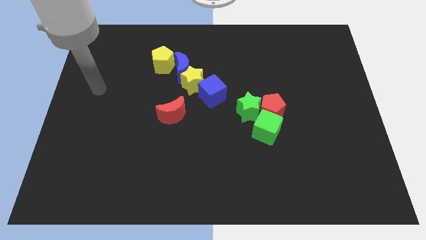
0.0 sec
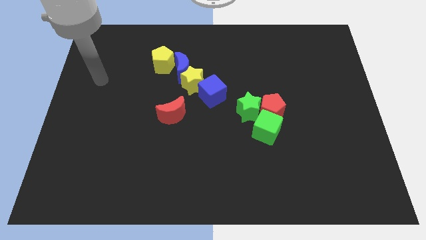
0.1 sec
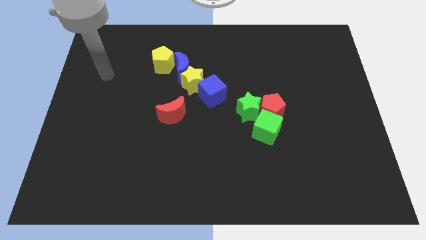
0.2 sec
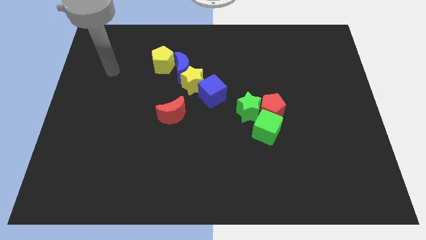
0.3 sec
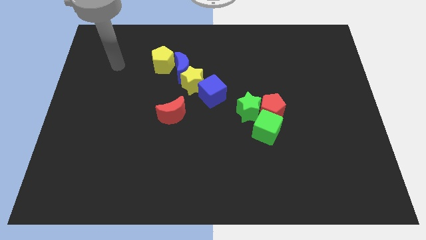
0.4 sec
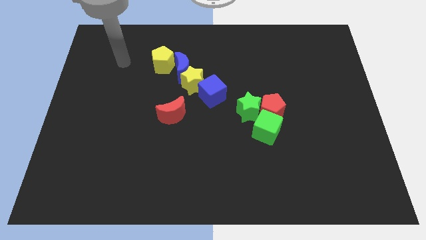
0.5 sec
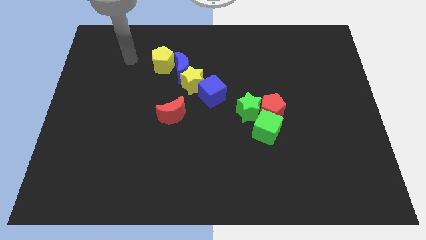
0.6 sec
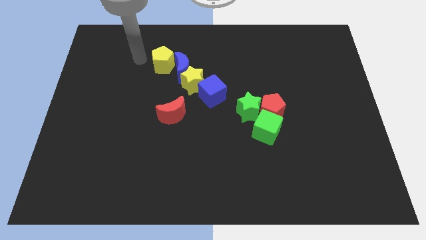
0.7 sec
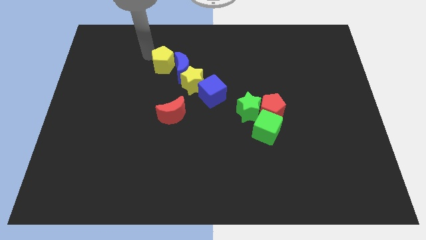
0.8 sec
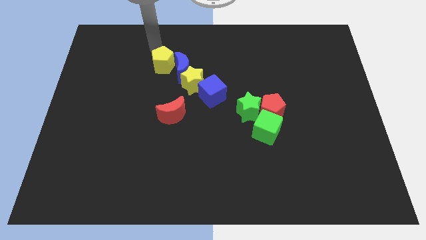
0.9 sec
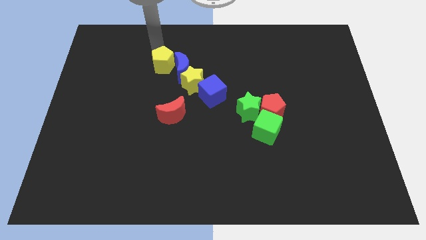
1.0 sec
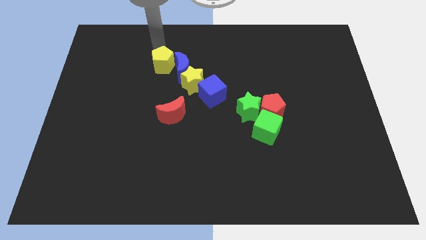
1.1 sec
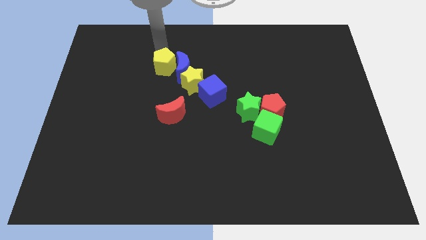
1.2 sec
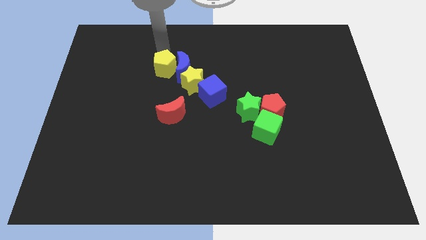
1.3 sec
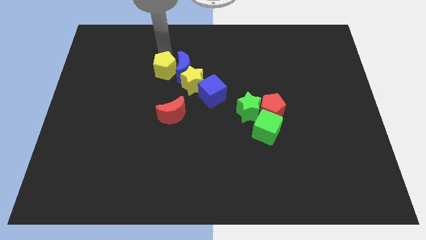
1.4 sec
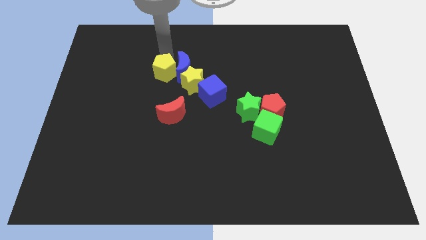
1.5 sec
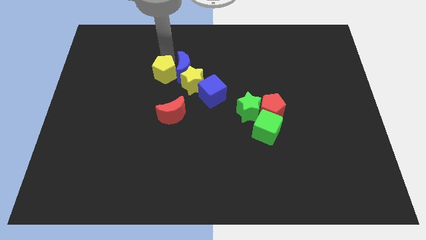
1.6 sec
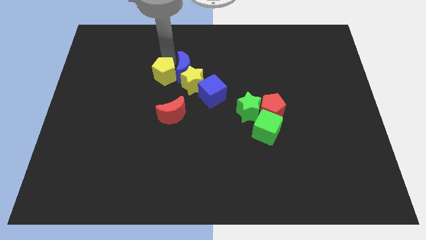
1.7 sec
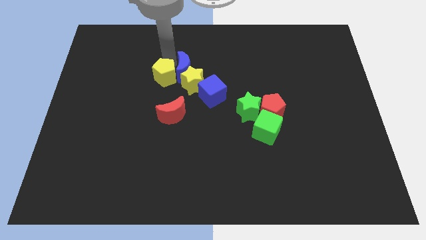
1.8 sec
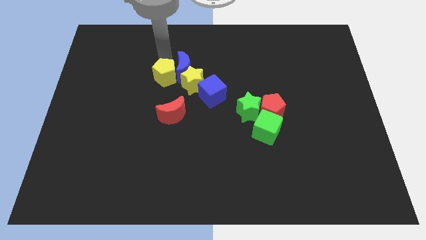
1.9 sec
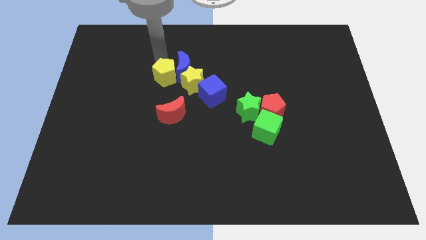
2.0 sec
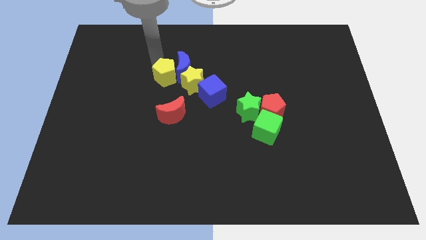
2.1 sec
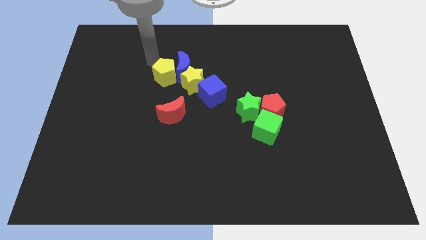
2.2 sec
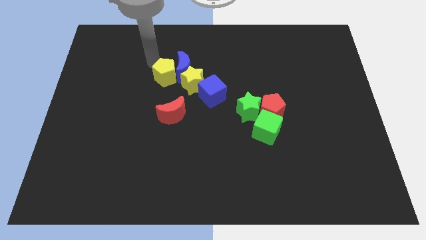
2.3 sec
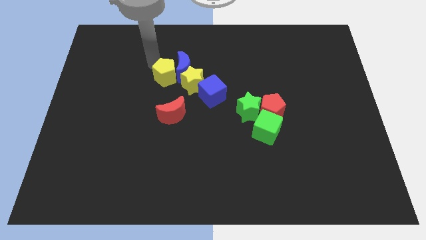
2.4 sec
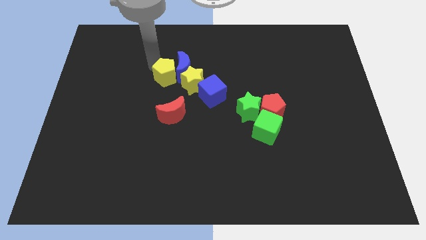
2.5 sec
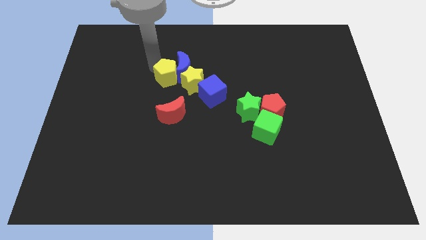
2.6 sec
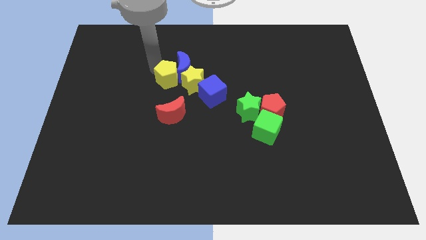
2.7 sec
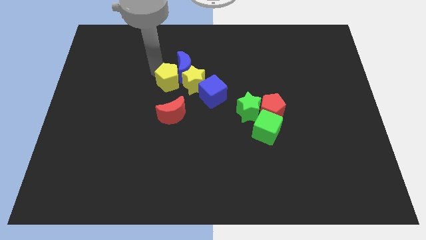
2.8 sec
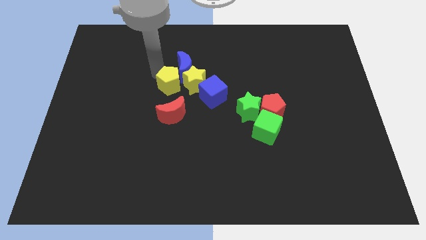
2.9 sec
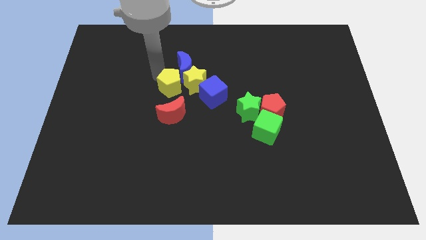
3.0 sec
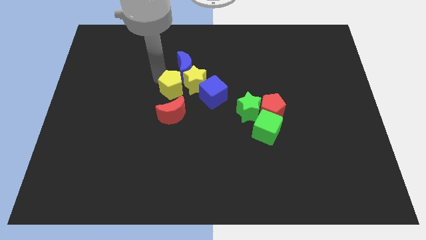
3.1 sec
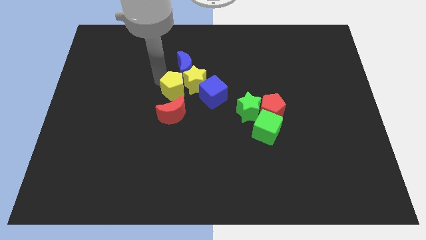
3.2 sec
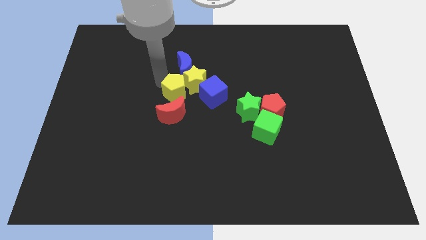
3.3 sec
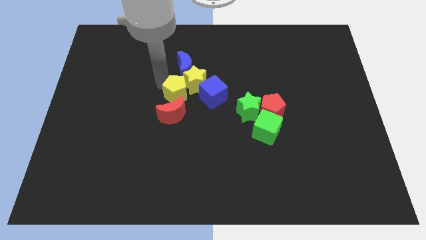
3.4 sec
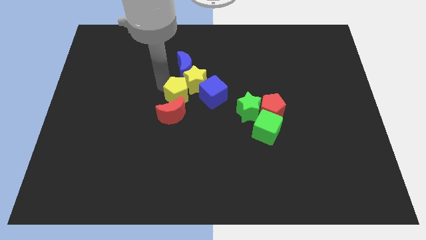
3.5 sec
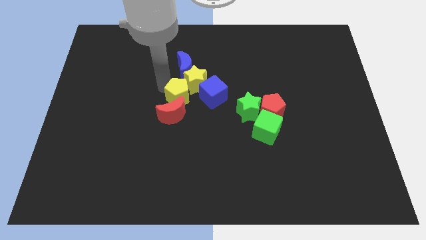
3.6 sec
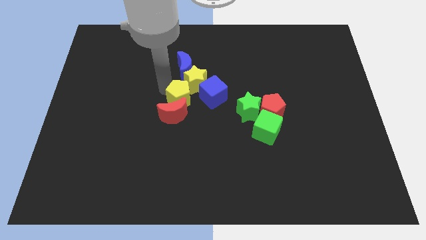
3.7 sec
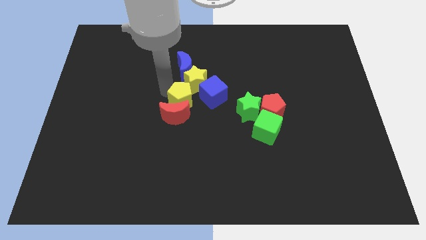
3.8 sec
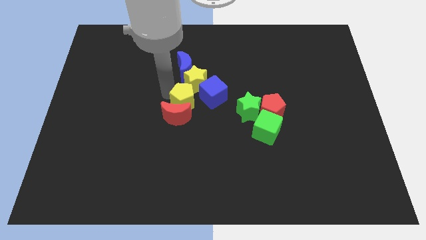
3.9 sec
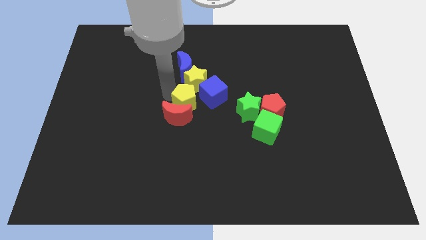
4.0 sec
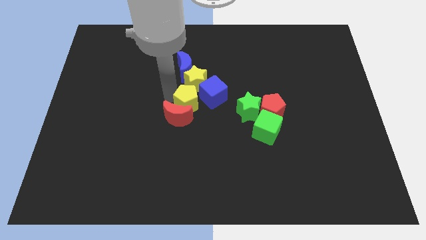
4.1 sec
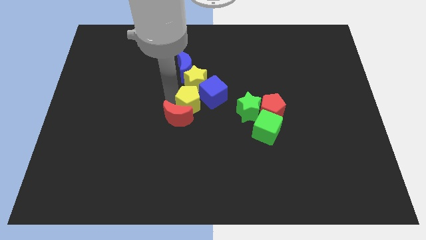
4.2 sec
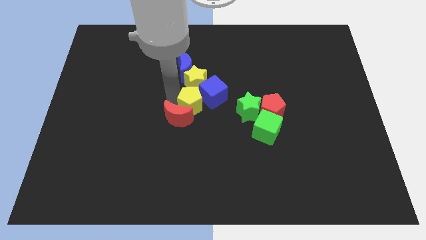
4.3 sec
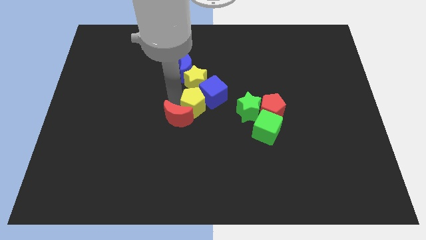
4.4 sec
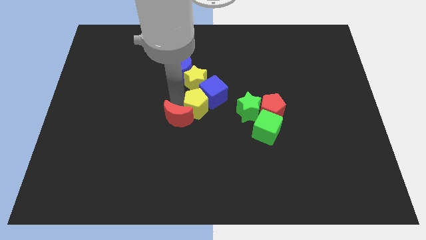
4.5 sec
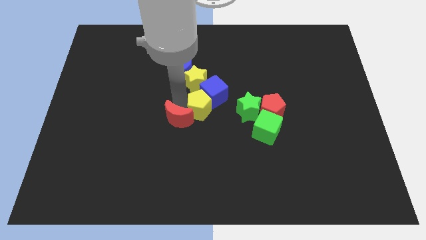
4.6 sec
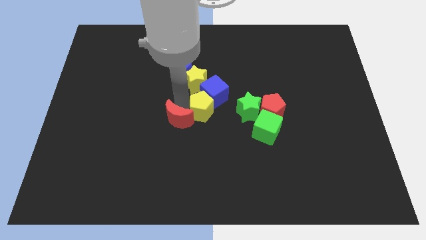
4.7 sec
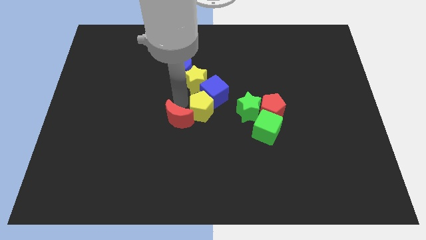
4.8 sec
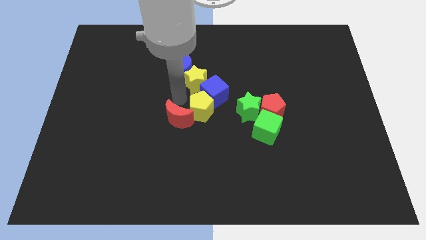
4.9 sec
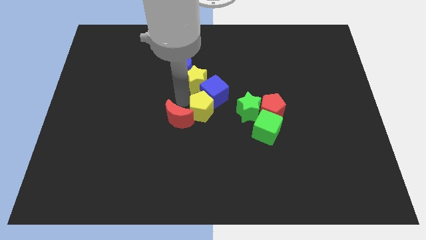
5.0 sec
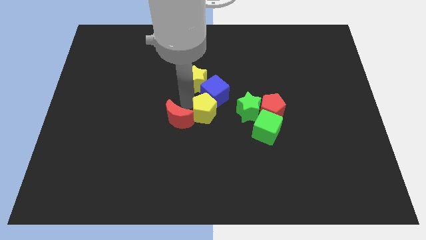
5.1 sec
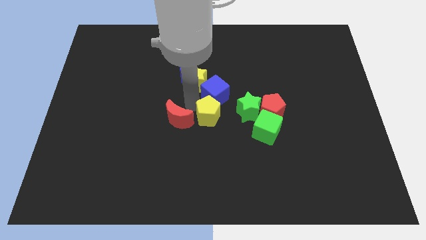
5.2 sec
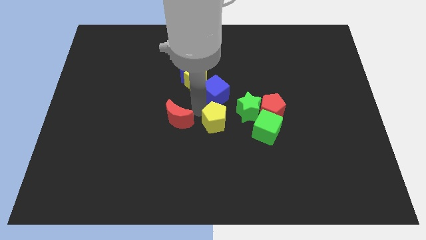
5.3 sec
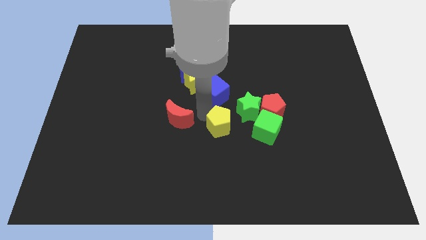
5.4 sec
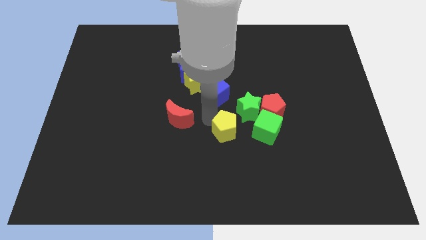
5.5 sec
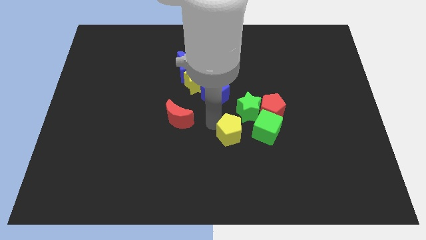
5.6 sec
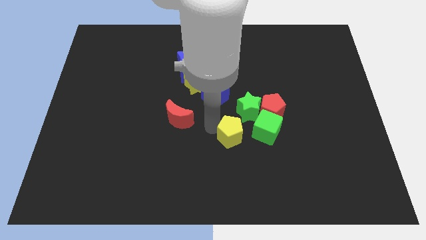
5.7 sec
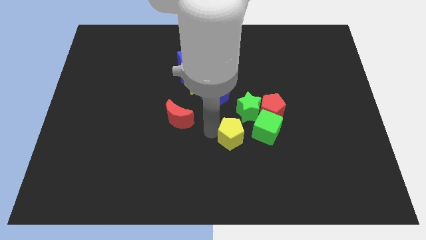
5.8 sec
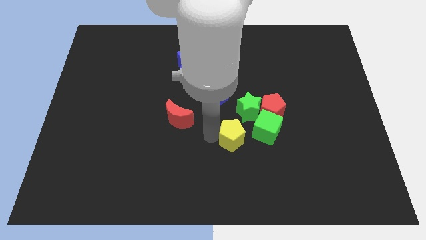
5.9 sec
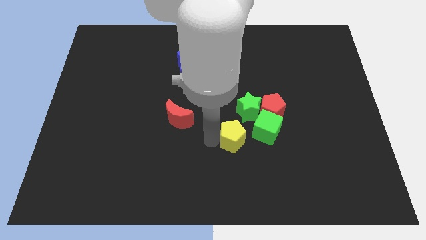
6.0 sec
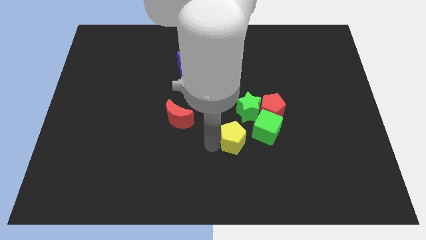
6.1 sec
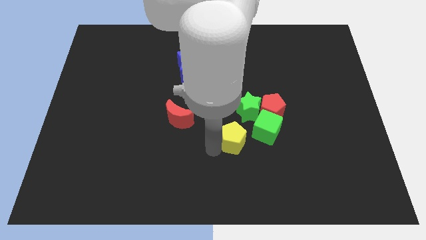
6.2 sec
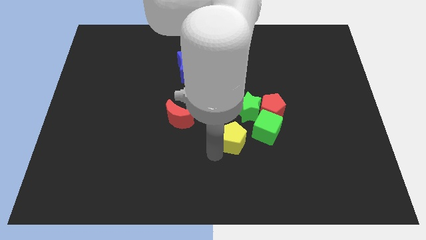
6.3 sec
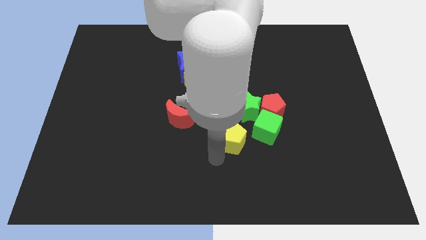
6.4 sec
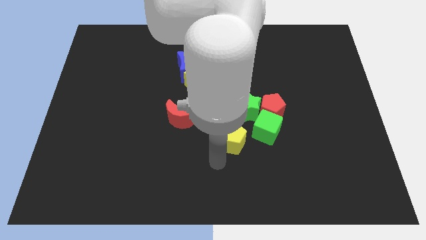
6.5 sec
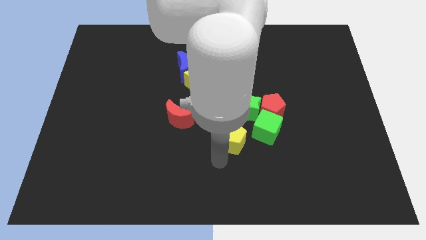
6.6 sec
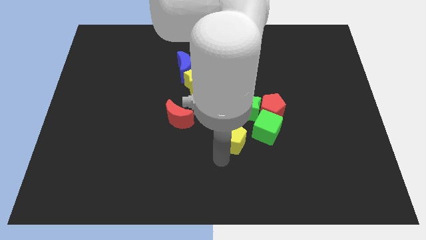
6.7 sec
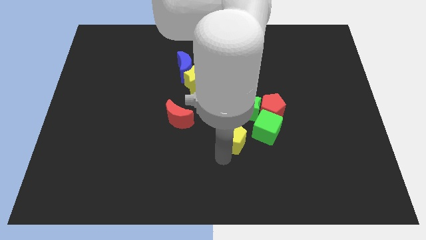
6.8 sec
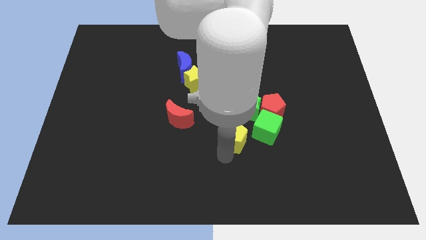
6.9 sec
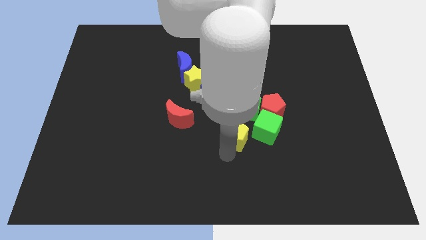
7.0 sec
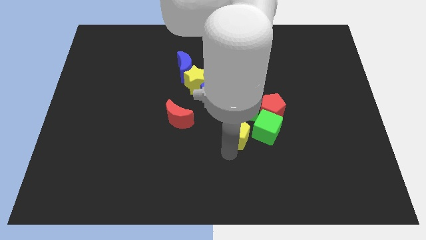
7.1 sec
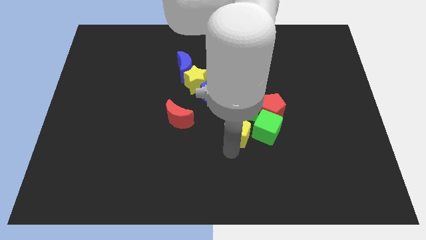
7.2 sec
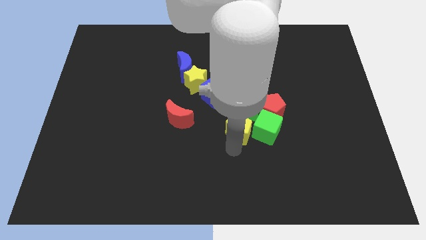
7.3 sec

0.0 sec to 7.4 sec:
move the yellow pentagon close to the green cube

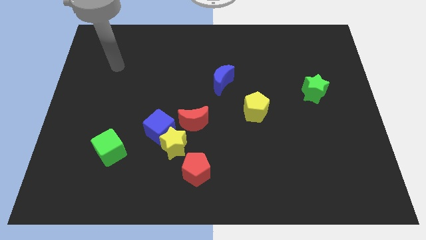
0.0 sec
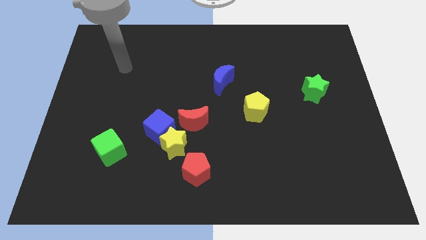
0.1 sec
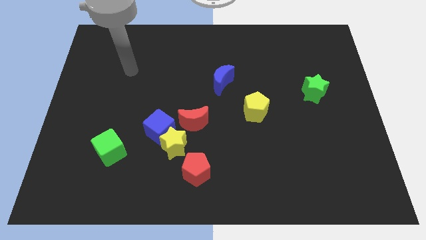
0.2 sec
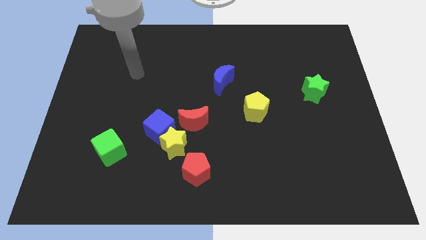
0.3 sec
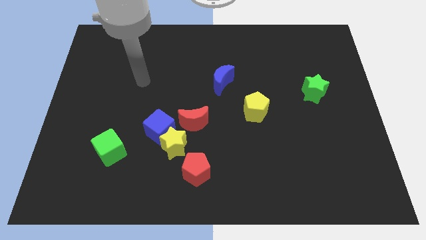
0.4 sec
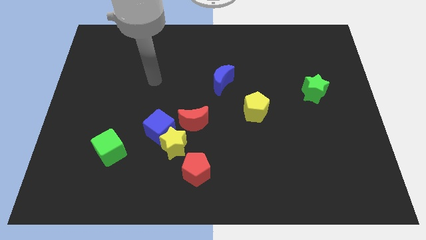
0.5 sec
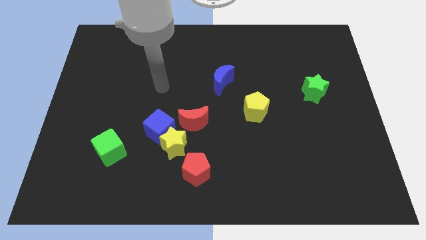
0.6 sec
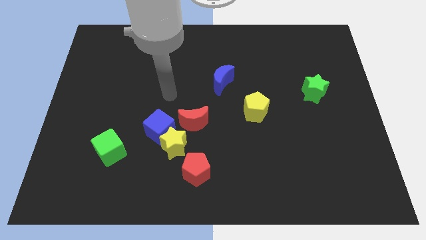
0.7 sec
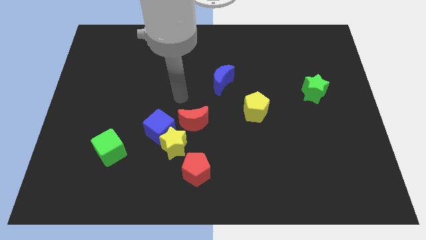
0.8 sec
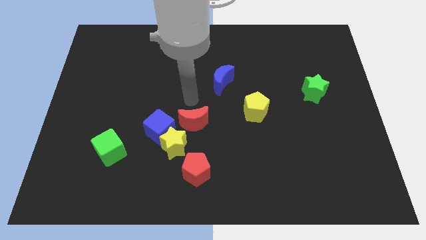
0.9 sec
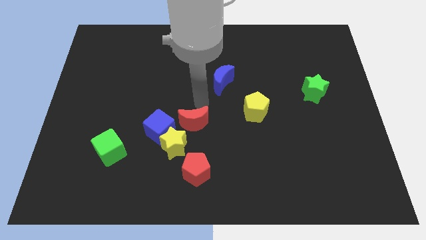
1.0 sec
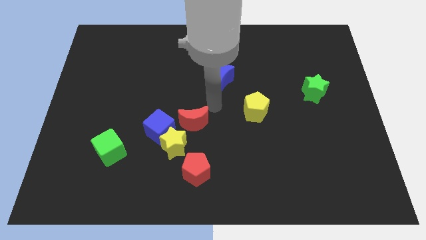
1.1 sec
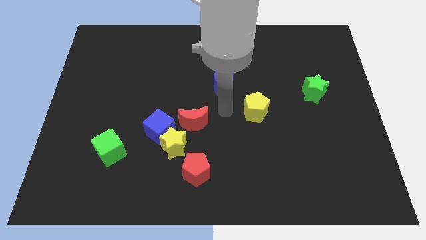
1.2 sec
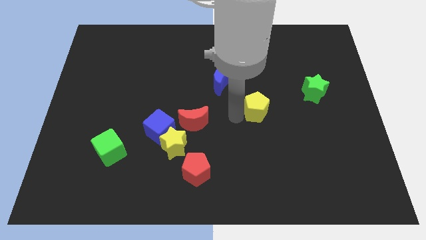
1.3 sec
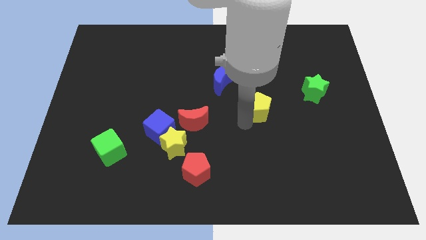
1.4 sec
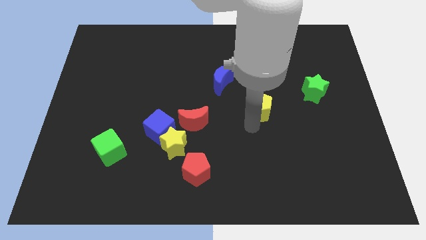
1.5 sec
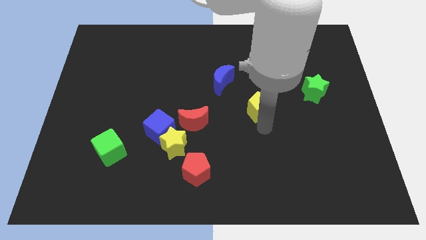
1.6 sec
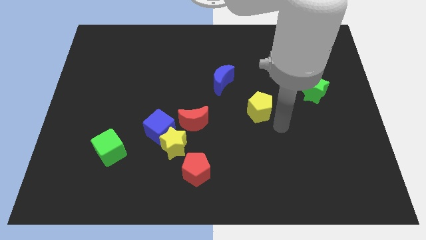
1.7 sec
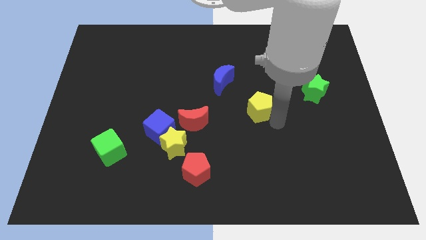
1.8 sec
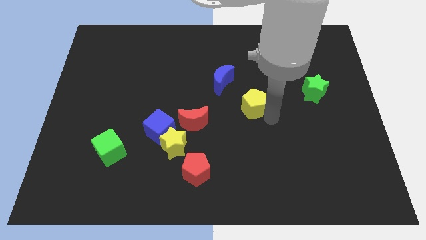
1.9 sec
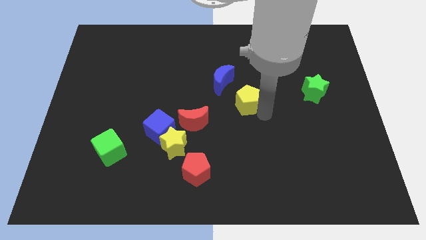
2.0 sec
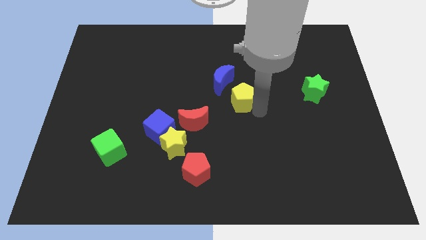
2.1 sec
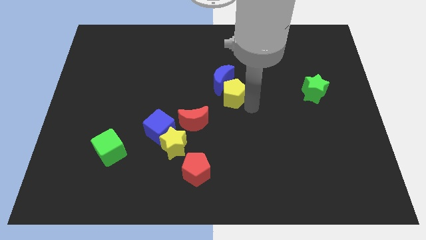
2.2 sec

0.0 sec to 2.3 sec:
push the yellow pentagon to the blue moon
